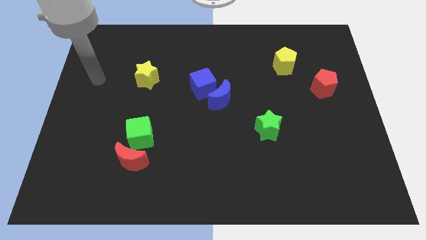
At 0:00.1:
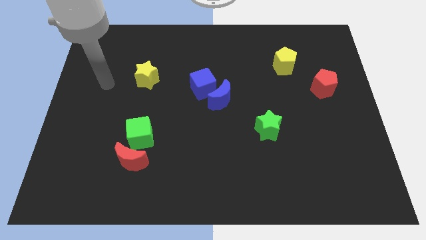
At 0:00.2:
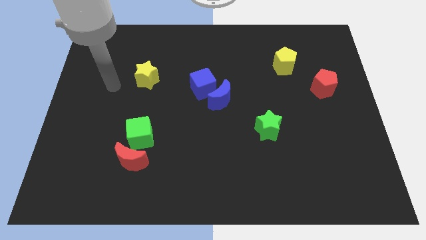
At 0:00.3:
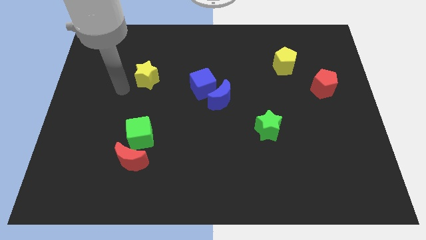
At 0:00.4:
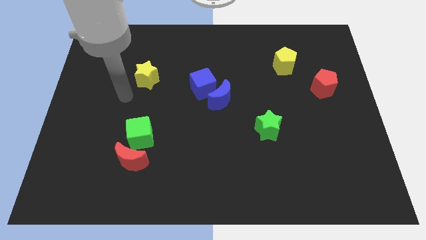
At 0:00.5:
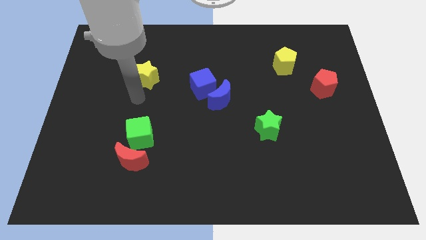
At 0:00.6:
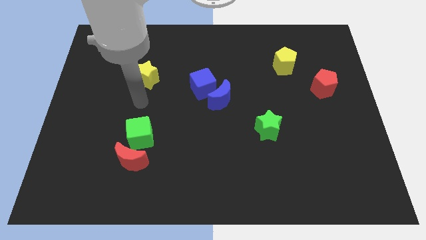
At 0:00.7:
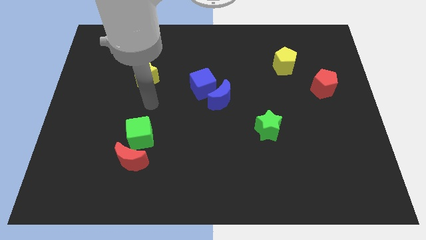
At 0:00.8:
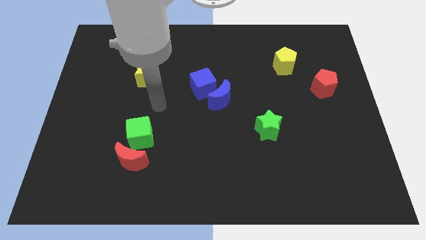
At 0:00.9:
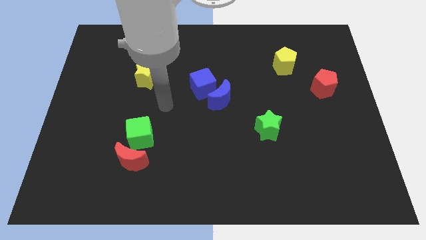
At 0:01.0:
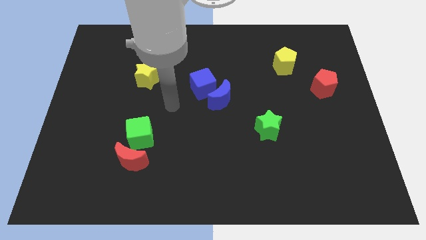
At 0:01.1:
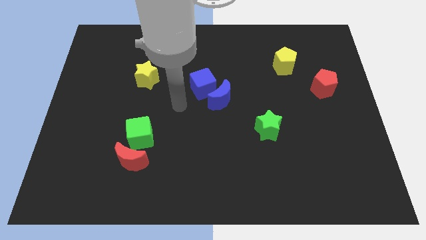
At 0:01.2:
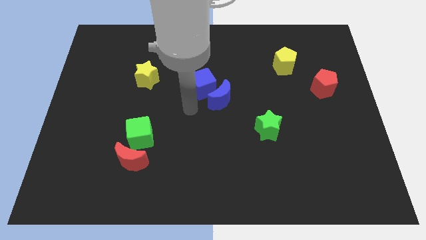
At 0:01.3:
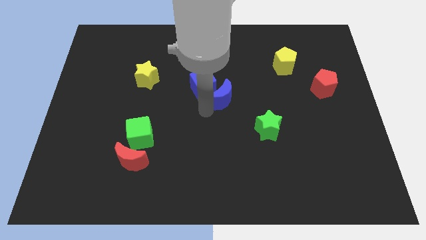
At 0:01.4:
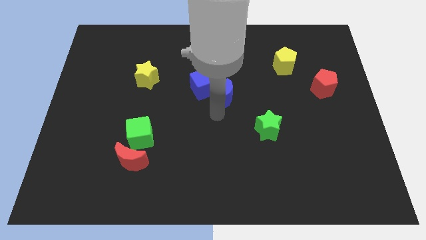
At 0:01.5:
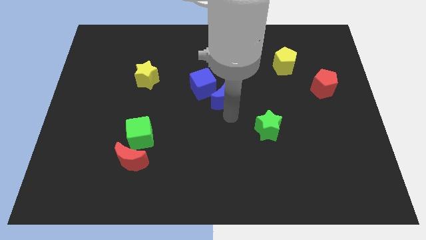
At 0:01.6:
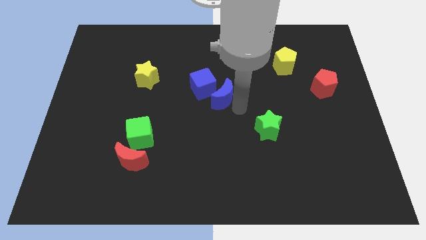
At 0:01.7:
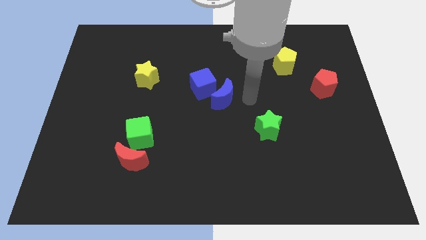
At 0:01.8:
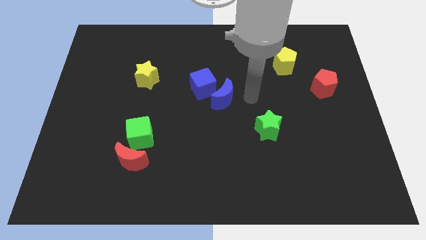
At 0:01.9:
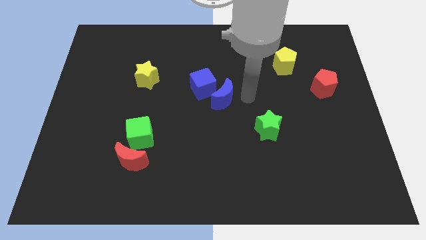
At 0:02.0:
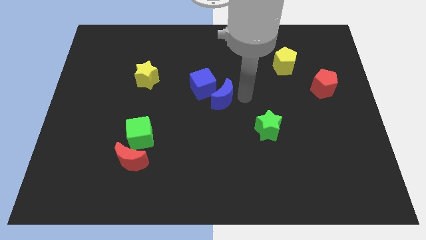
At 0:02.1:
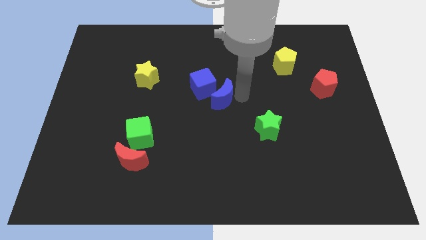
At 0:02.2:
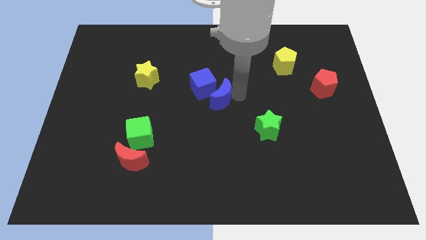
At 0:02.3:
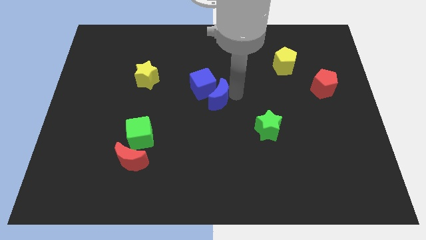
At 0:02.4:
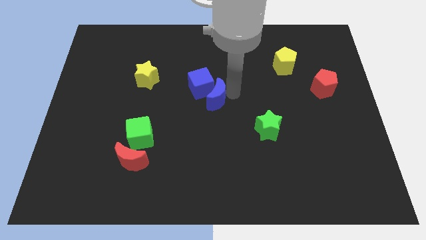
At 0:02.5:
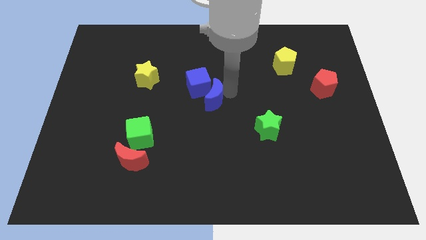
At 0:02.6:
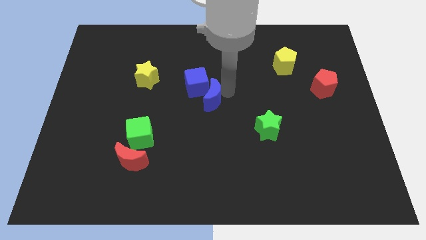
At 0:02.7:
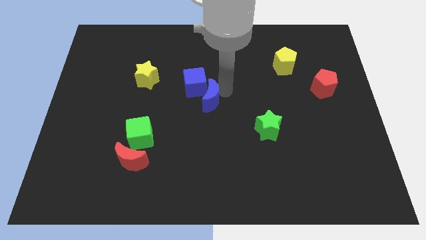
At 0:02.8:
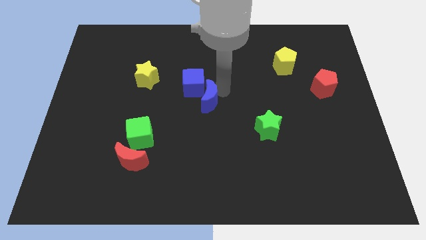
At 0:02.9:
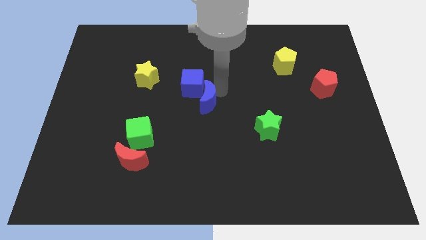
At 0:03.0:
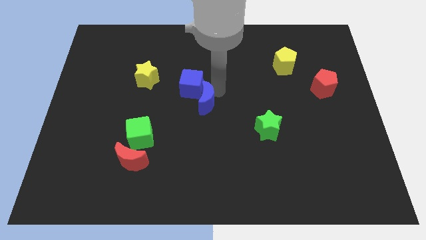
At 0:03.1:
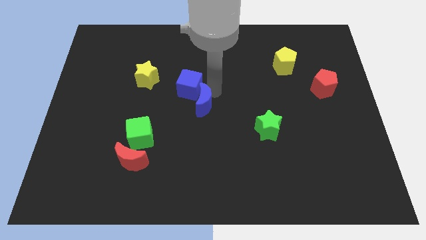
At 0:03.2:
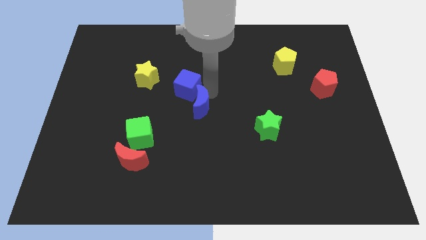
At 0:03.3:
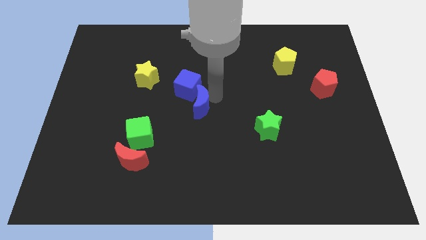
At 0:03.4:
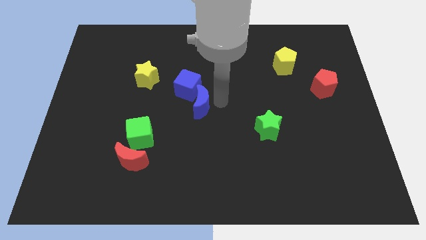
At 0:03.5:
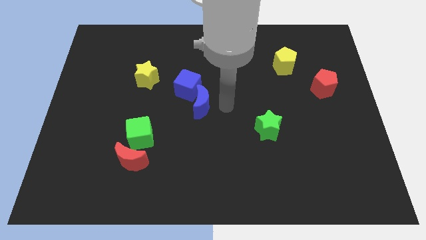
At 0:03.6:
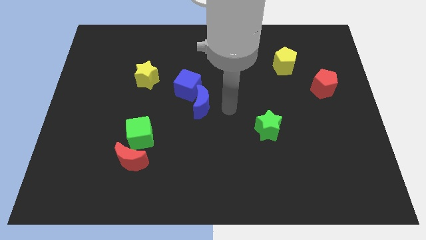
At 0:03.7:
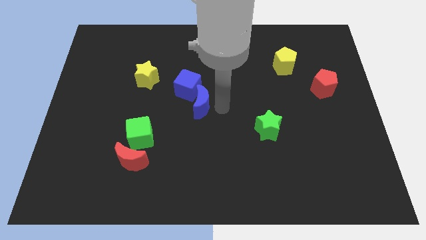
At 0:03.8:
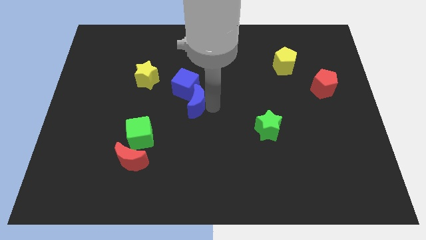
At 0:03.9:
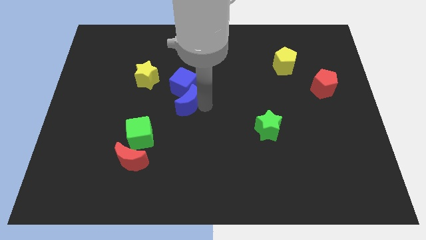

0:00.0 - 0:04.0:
move the blue moon a bit left

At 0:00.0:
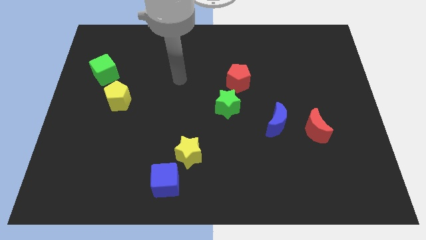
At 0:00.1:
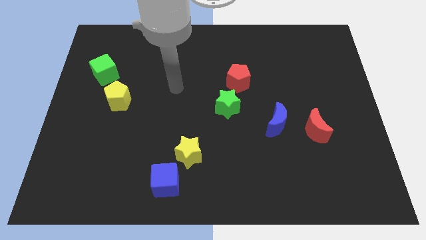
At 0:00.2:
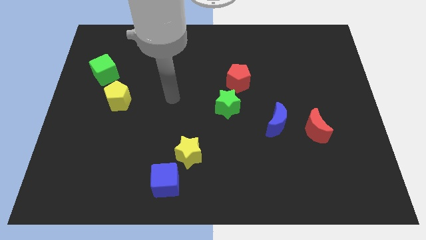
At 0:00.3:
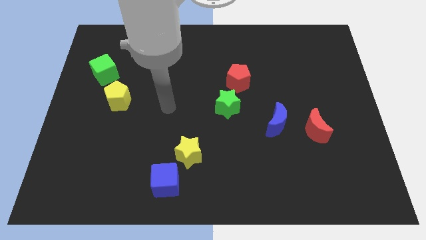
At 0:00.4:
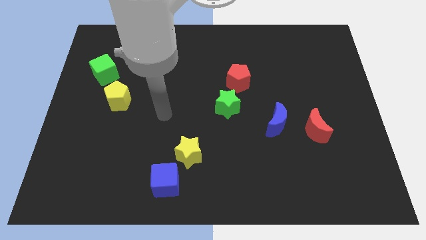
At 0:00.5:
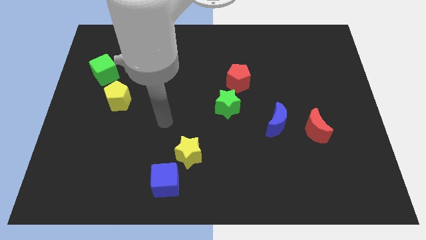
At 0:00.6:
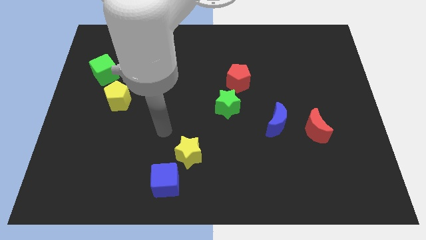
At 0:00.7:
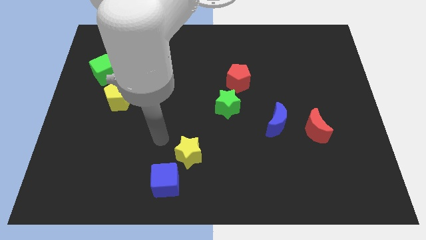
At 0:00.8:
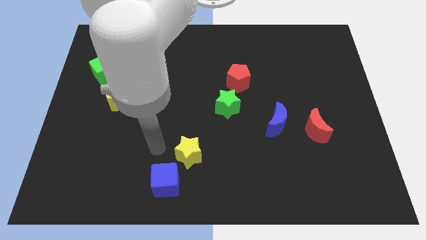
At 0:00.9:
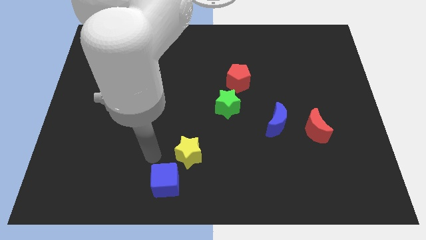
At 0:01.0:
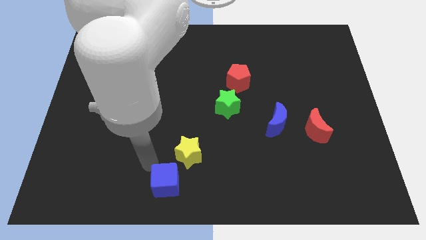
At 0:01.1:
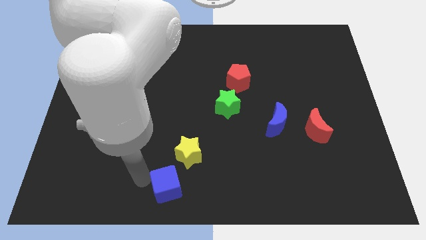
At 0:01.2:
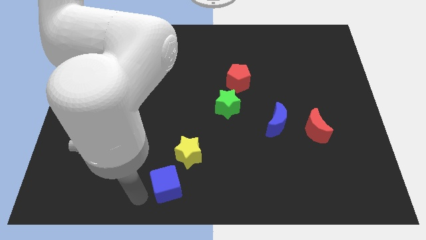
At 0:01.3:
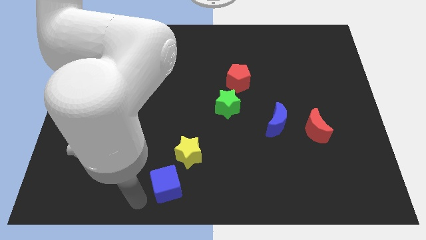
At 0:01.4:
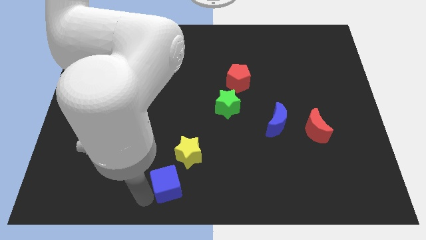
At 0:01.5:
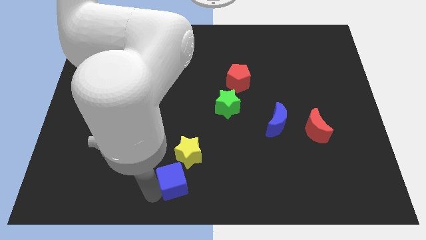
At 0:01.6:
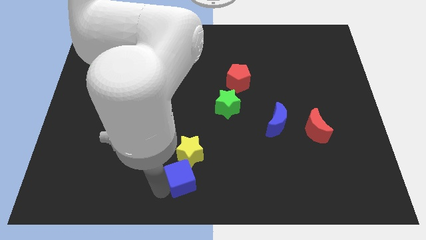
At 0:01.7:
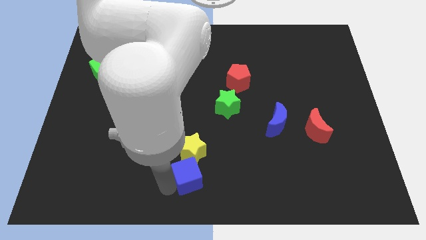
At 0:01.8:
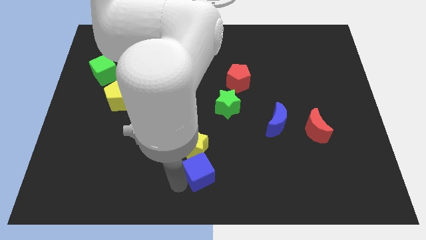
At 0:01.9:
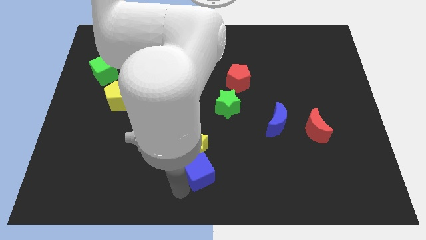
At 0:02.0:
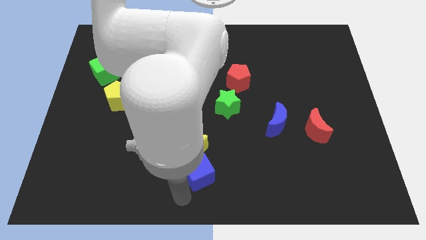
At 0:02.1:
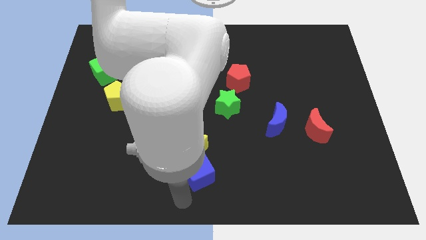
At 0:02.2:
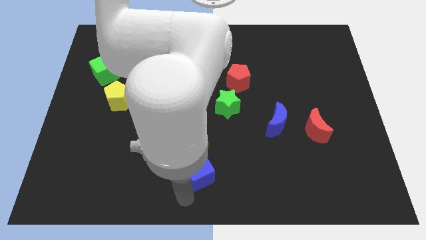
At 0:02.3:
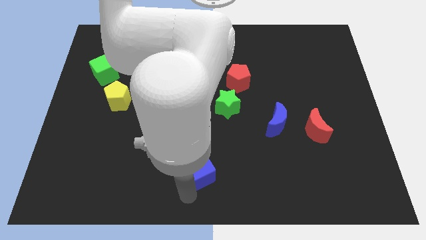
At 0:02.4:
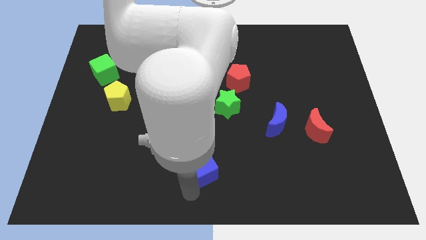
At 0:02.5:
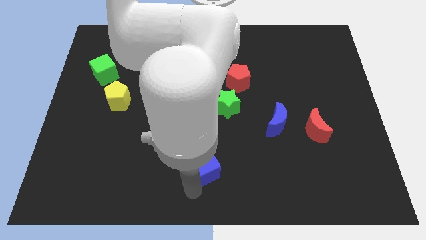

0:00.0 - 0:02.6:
move the blue cube slightly up and to the right diagonally

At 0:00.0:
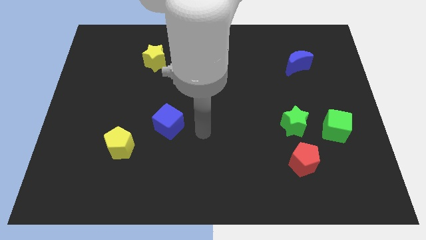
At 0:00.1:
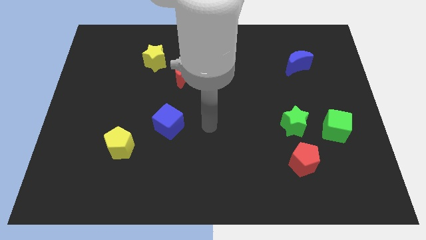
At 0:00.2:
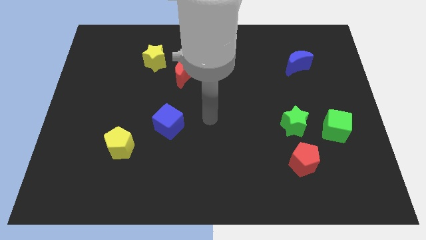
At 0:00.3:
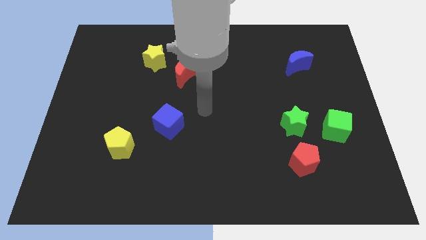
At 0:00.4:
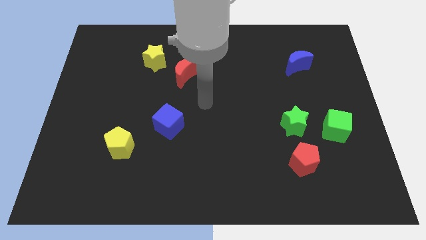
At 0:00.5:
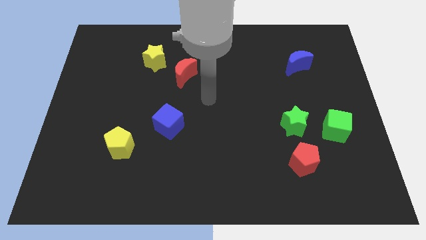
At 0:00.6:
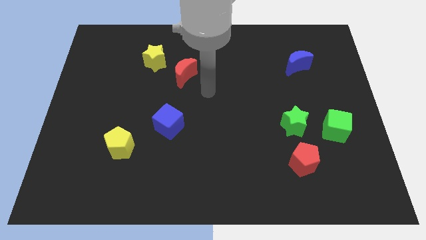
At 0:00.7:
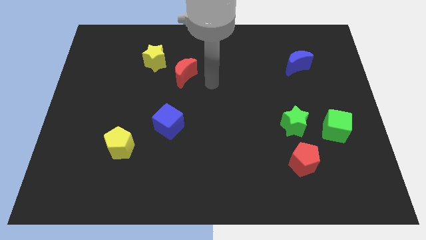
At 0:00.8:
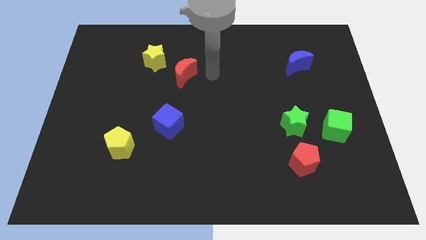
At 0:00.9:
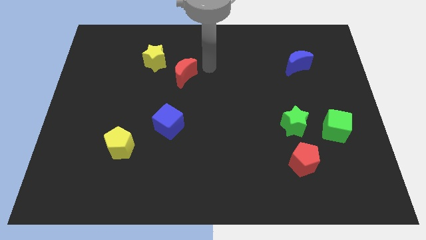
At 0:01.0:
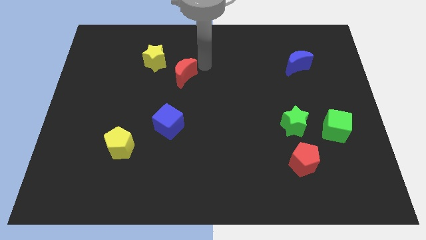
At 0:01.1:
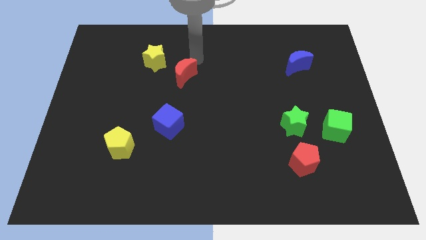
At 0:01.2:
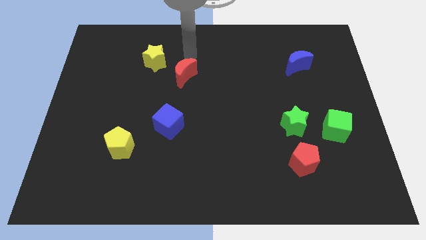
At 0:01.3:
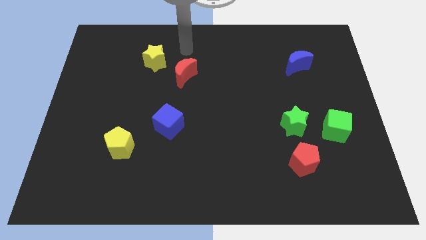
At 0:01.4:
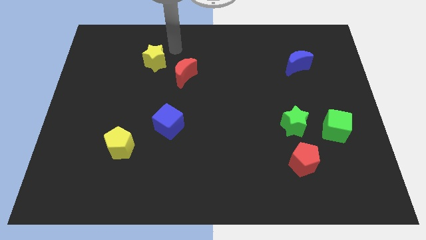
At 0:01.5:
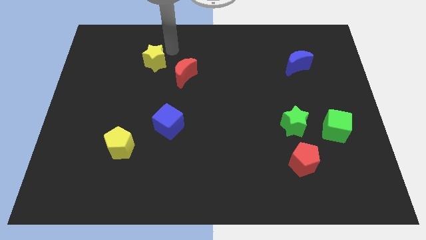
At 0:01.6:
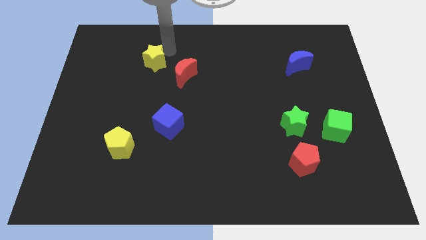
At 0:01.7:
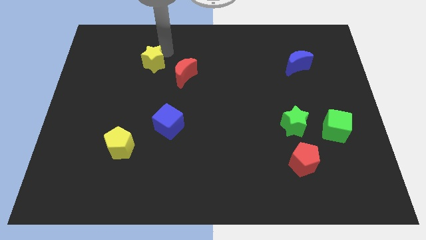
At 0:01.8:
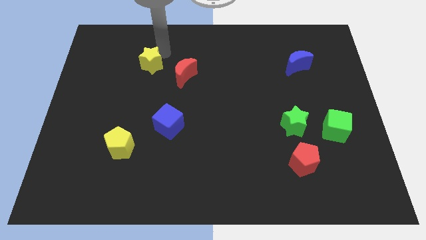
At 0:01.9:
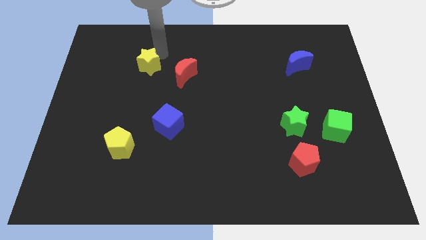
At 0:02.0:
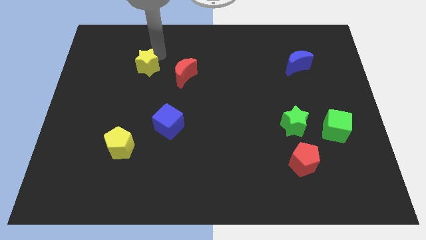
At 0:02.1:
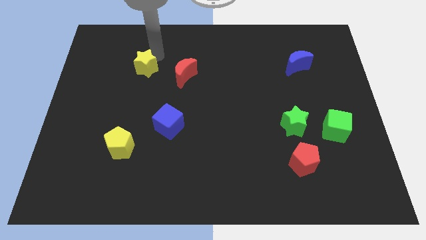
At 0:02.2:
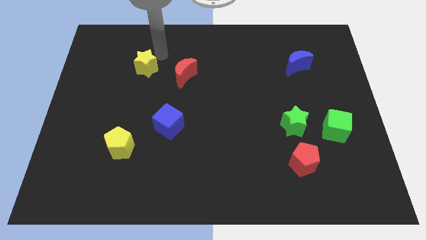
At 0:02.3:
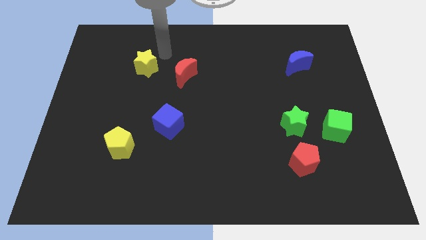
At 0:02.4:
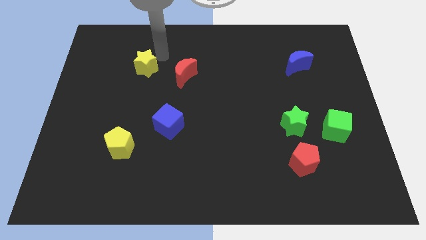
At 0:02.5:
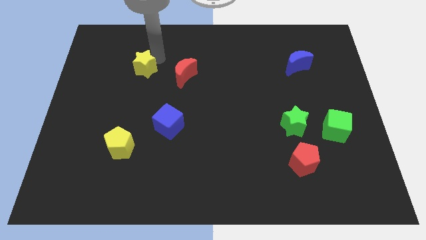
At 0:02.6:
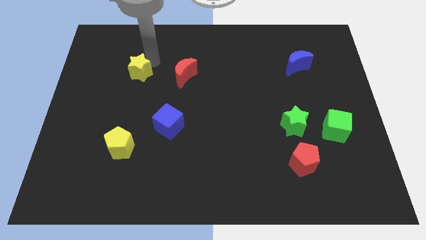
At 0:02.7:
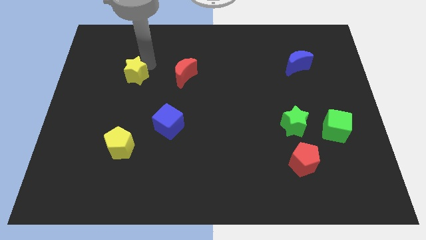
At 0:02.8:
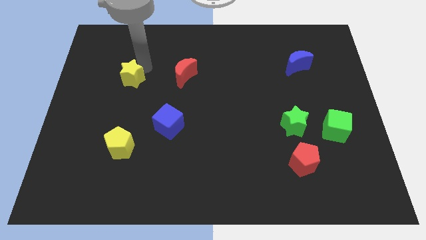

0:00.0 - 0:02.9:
slightly push the yellow star down and to the left
